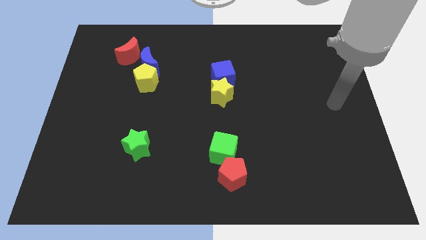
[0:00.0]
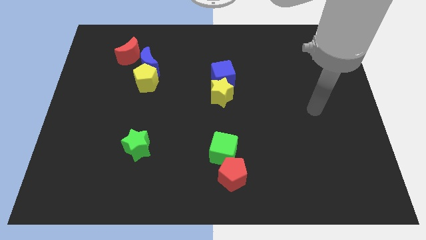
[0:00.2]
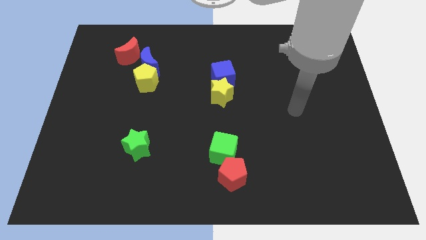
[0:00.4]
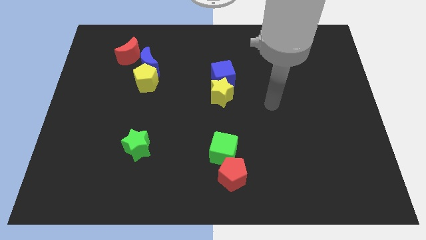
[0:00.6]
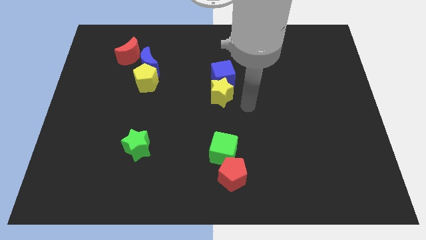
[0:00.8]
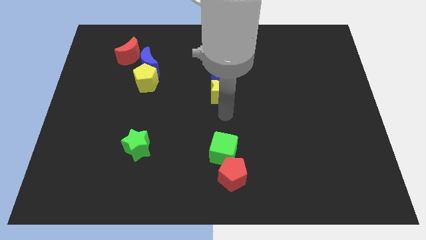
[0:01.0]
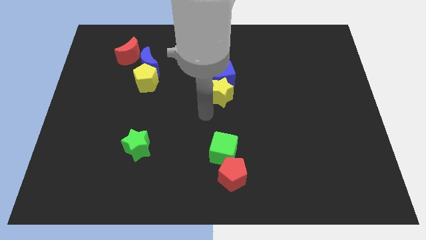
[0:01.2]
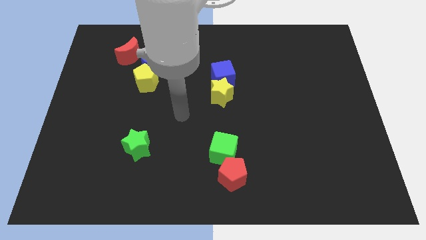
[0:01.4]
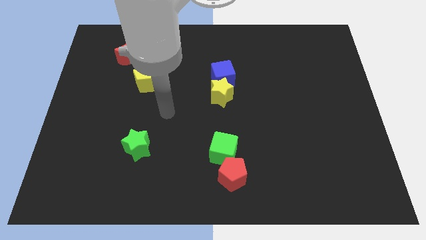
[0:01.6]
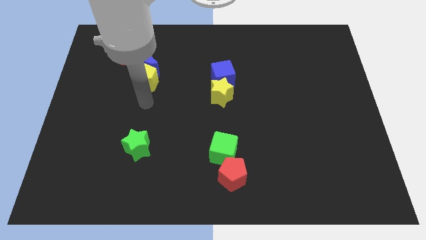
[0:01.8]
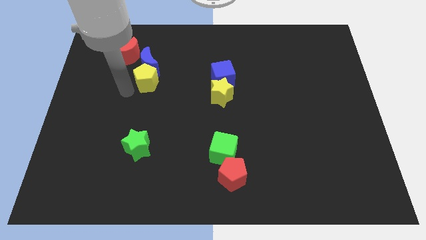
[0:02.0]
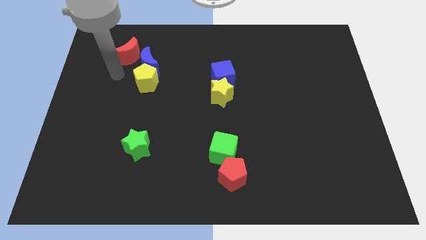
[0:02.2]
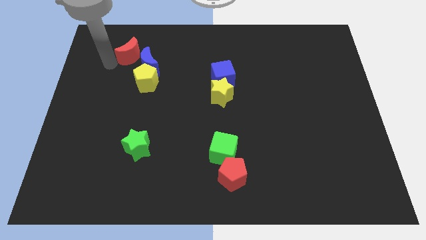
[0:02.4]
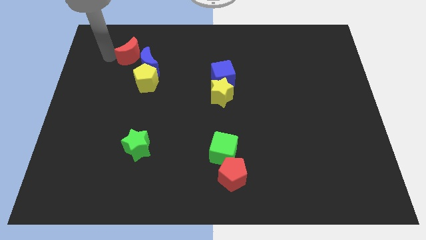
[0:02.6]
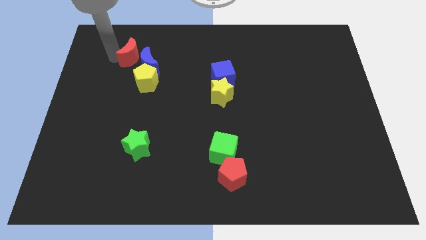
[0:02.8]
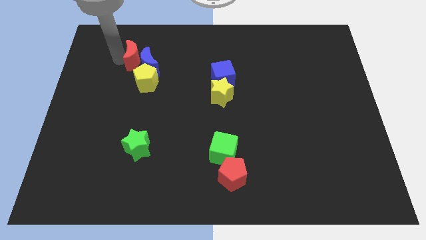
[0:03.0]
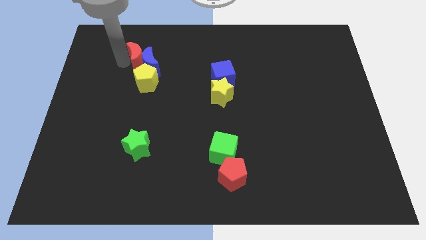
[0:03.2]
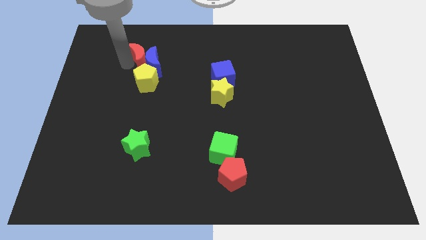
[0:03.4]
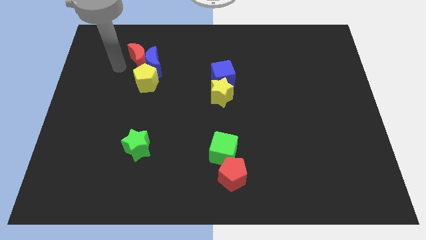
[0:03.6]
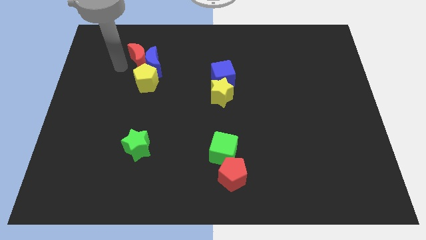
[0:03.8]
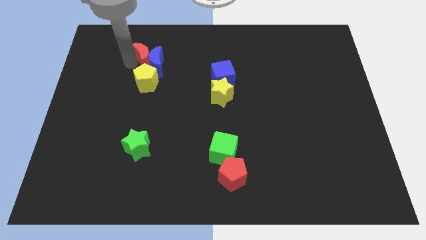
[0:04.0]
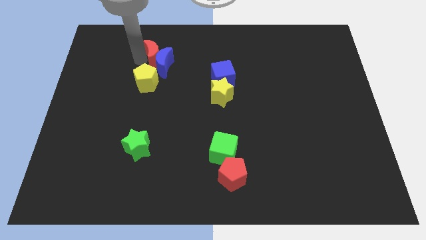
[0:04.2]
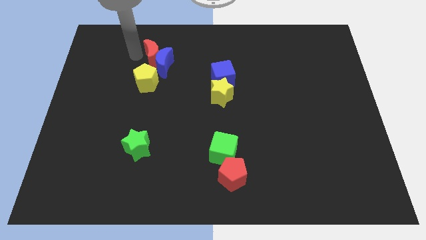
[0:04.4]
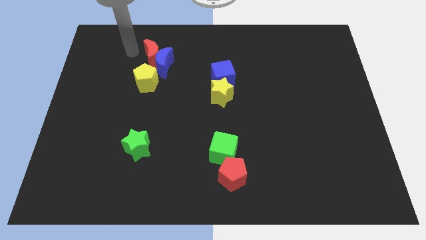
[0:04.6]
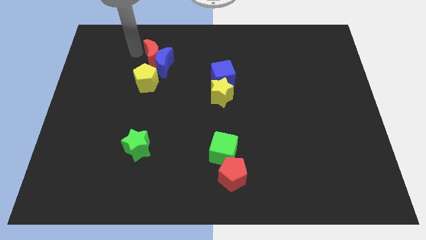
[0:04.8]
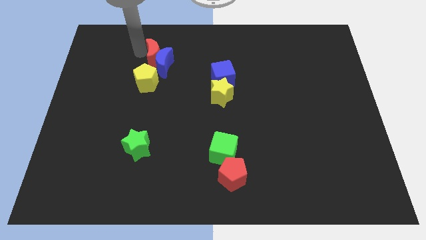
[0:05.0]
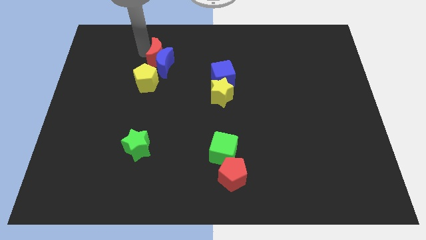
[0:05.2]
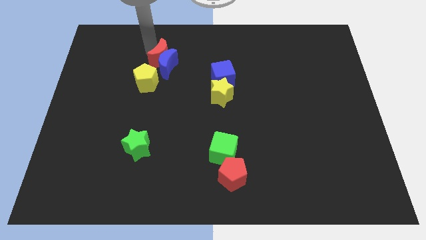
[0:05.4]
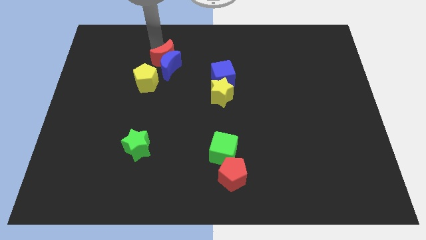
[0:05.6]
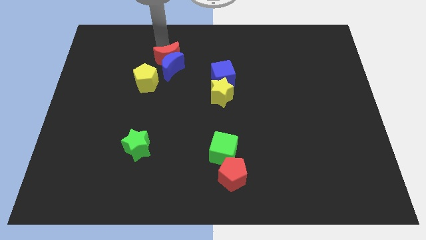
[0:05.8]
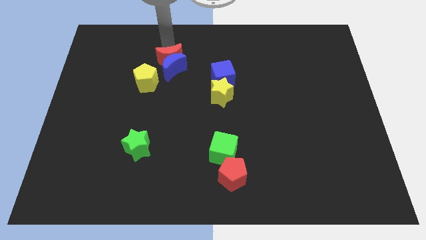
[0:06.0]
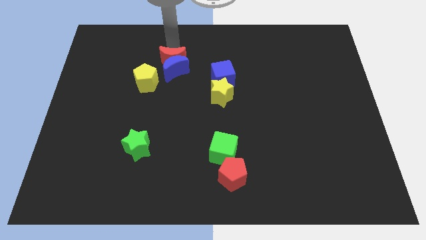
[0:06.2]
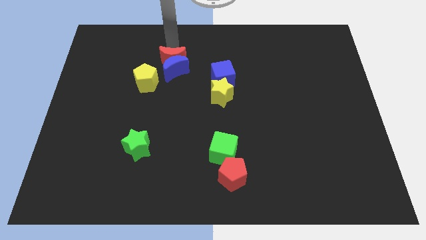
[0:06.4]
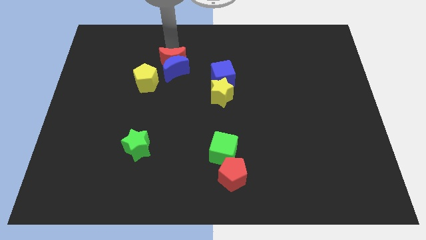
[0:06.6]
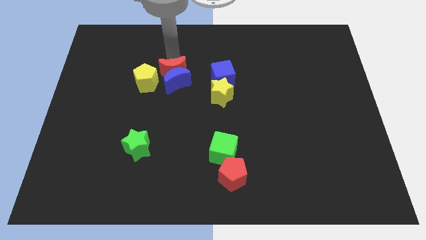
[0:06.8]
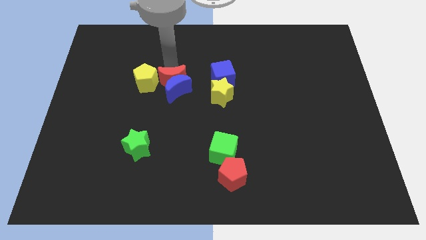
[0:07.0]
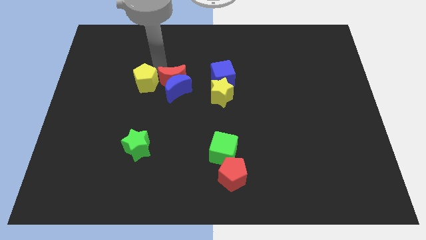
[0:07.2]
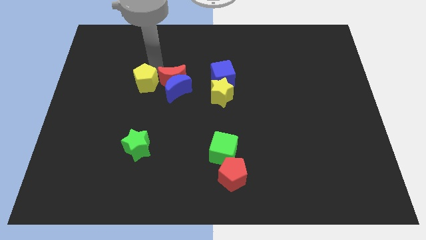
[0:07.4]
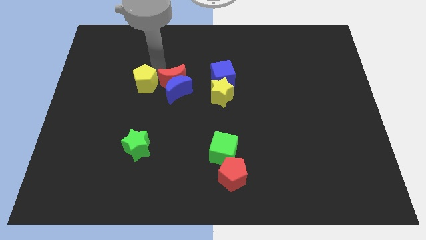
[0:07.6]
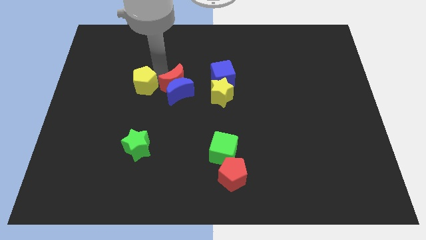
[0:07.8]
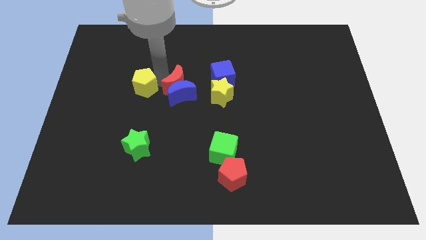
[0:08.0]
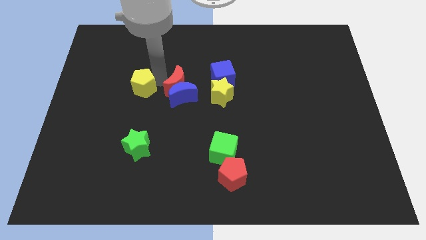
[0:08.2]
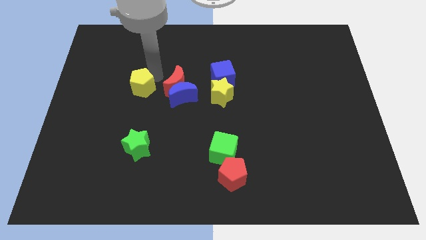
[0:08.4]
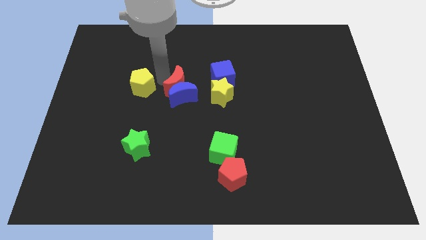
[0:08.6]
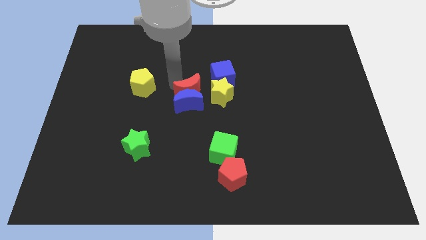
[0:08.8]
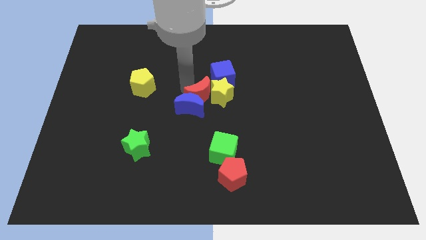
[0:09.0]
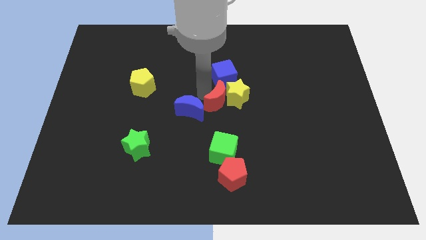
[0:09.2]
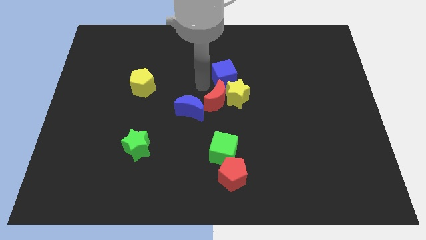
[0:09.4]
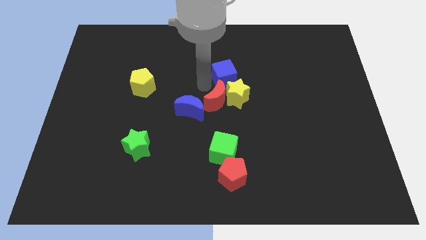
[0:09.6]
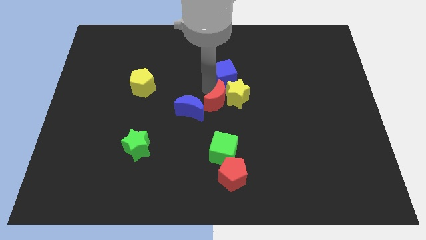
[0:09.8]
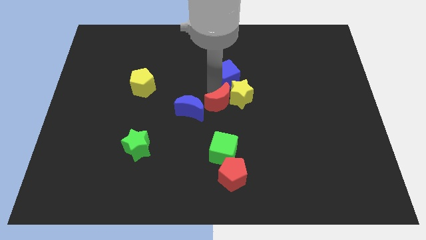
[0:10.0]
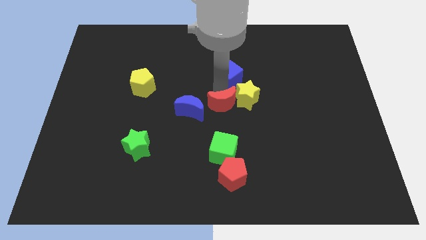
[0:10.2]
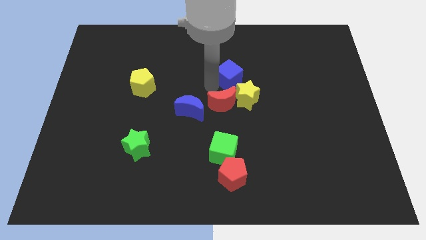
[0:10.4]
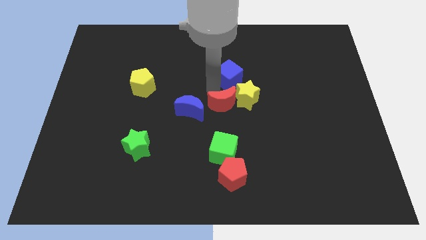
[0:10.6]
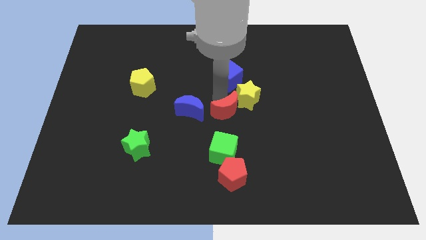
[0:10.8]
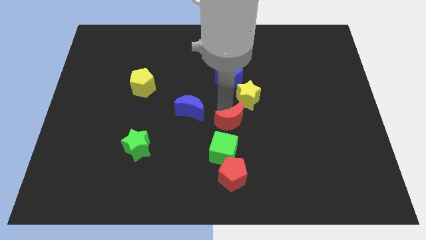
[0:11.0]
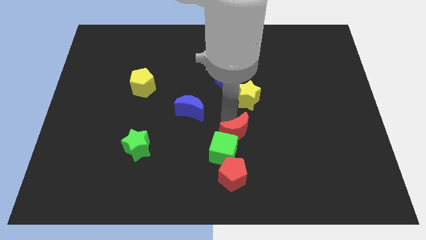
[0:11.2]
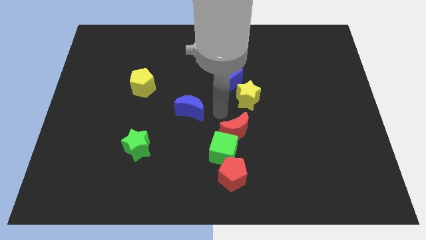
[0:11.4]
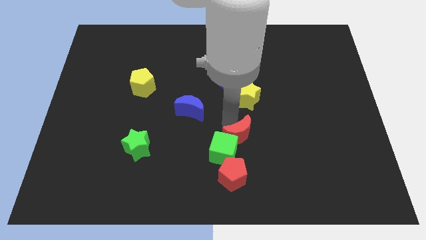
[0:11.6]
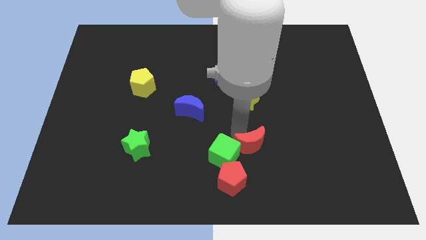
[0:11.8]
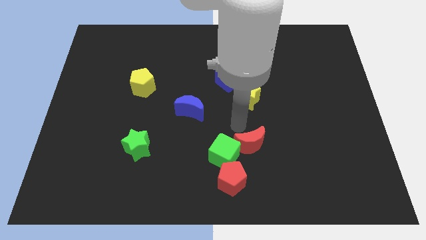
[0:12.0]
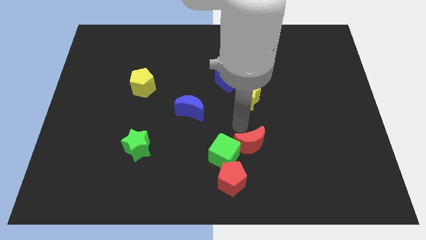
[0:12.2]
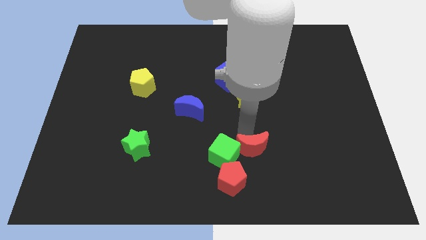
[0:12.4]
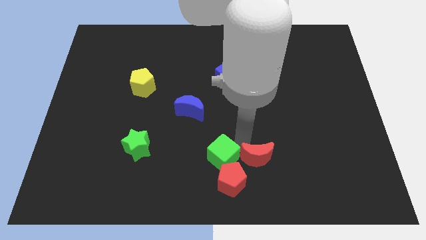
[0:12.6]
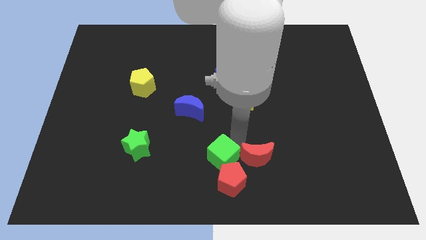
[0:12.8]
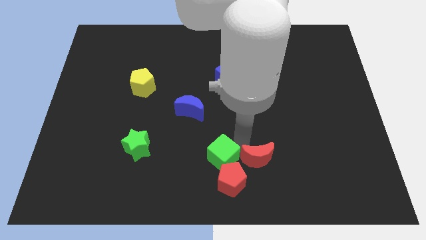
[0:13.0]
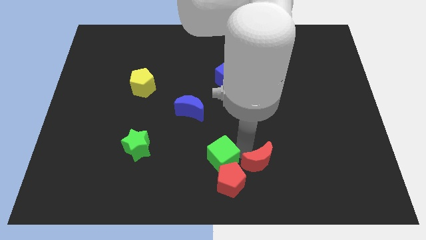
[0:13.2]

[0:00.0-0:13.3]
put the red moon just right of the red pentagon
